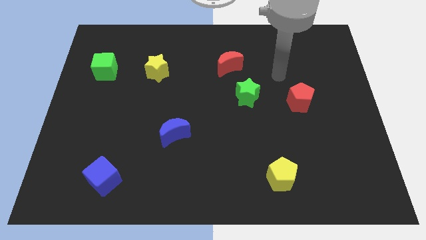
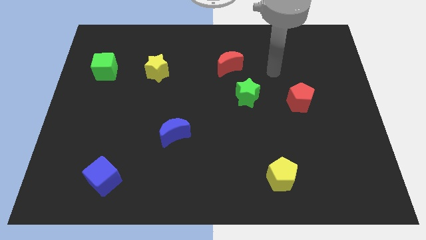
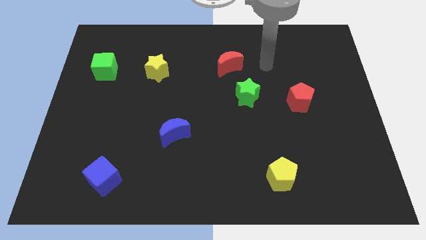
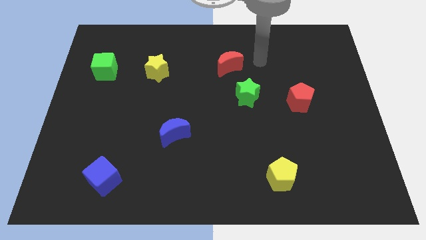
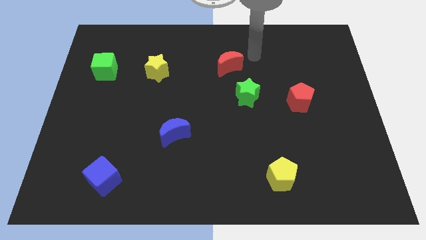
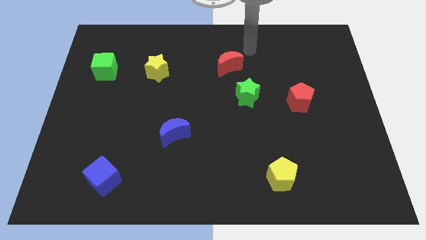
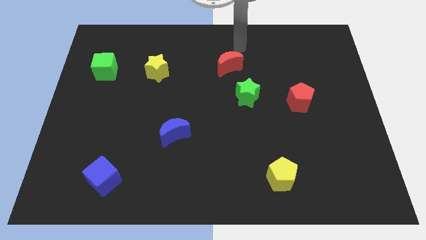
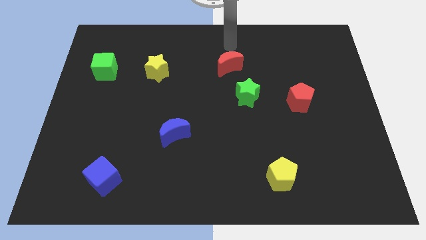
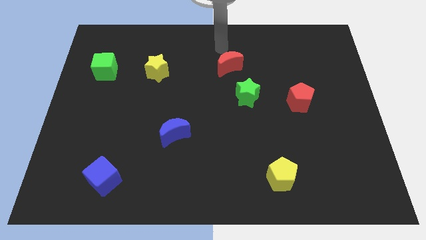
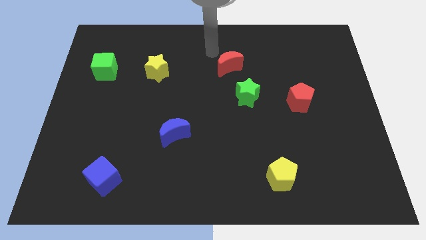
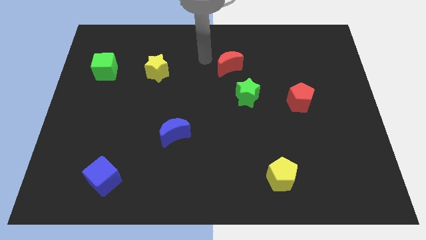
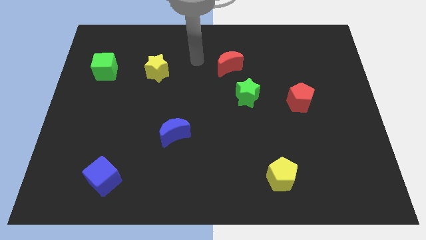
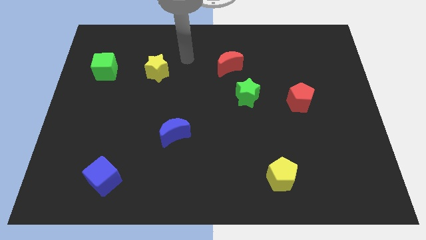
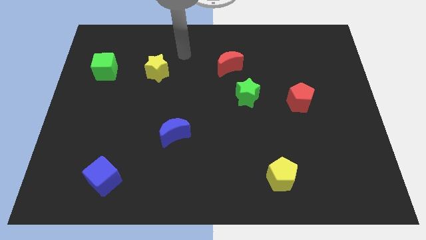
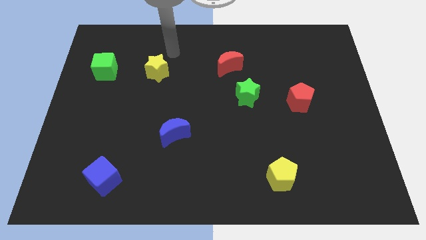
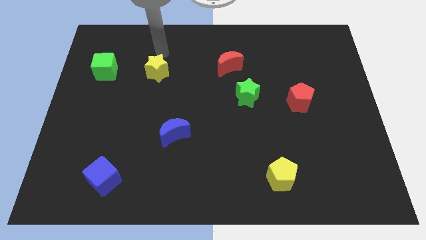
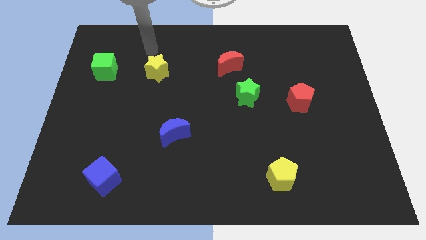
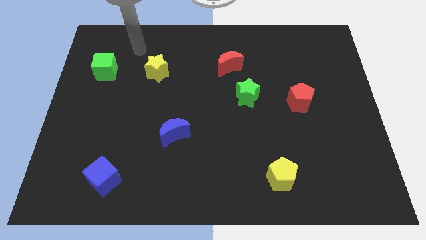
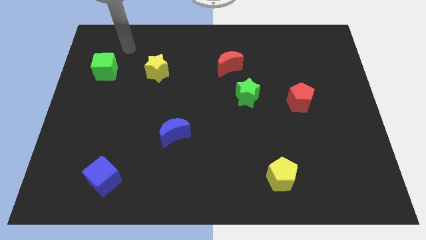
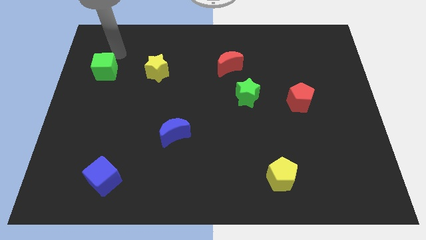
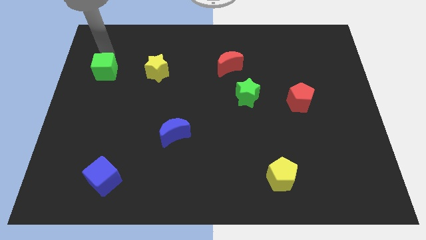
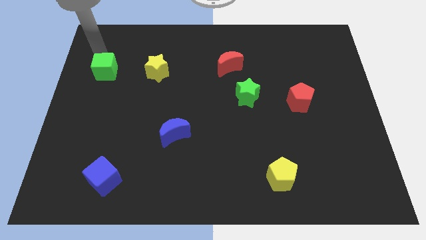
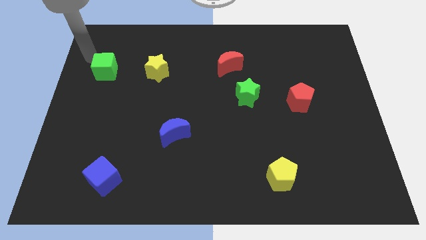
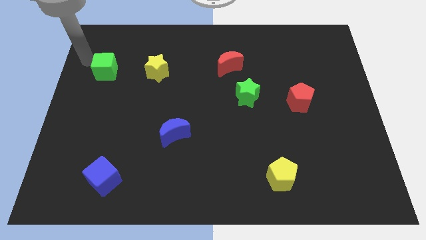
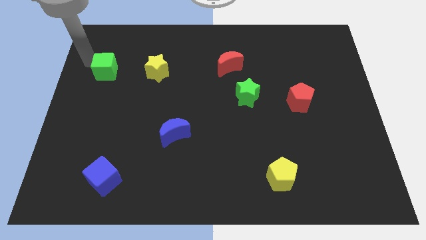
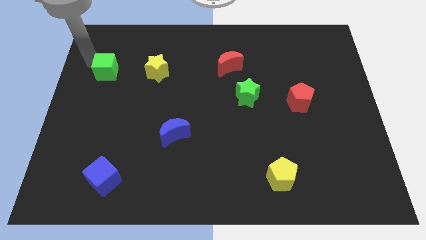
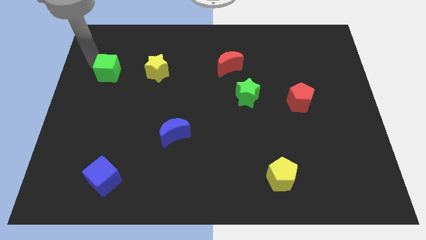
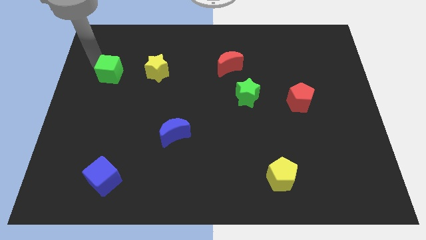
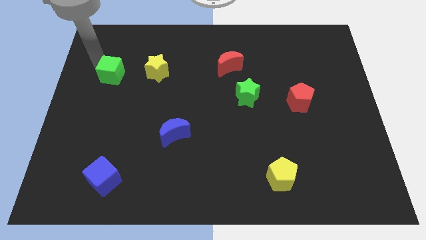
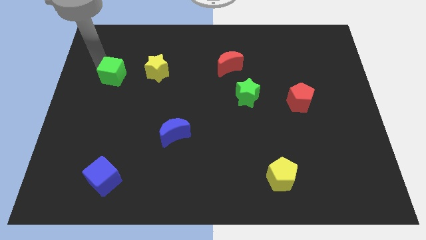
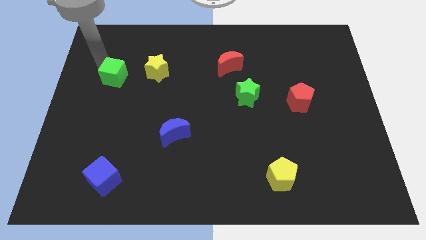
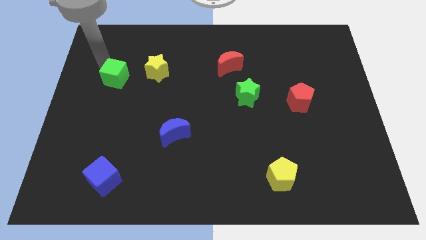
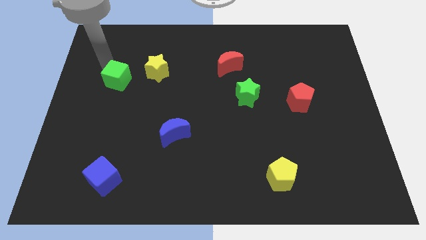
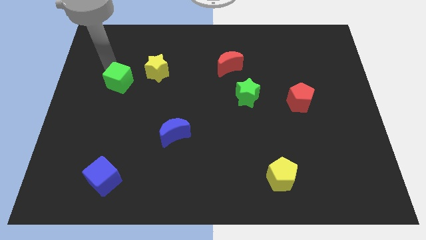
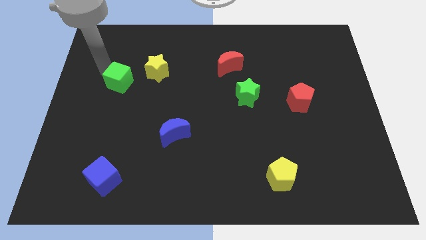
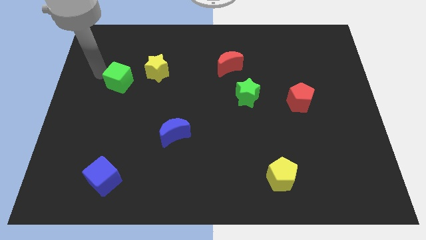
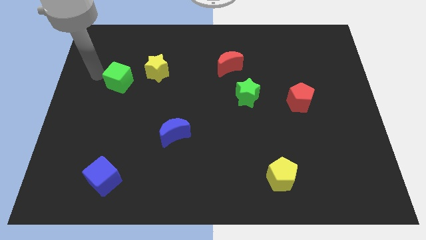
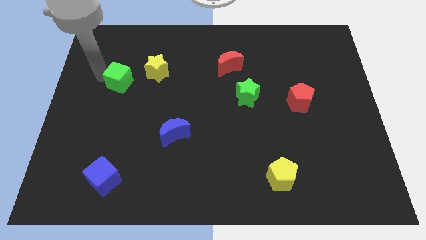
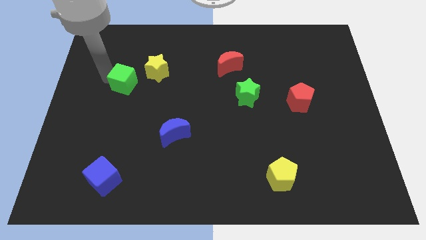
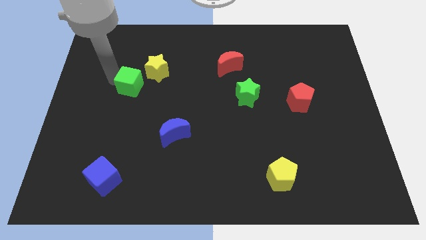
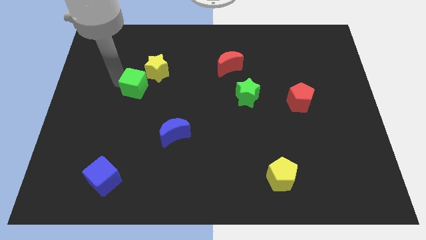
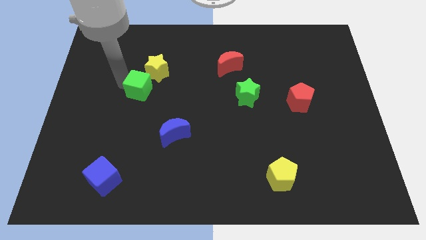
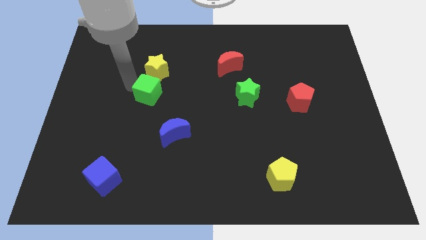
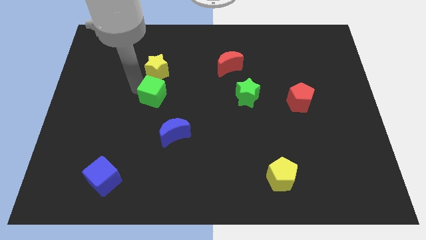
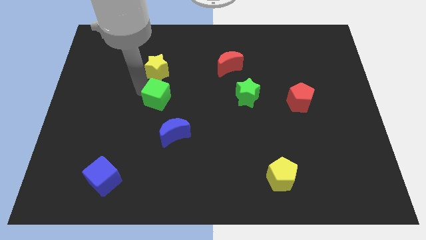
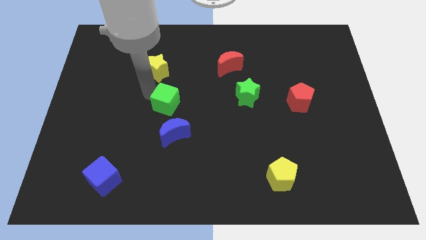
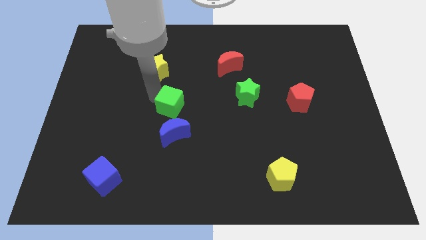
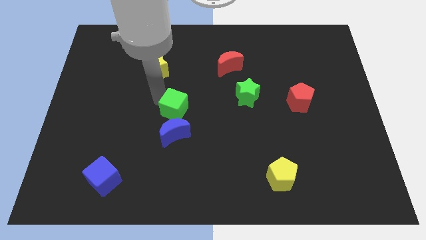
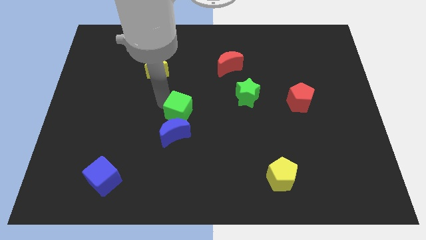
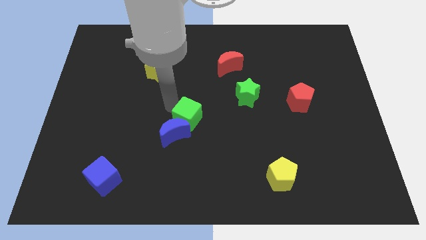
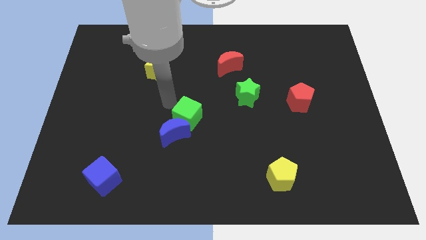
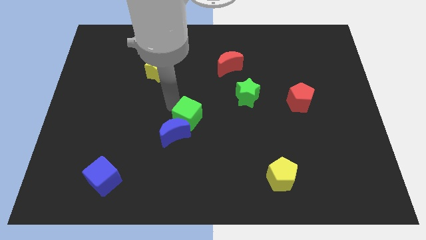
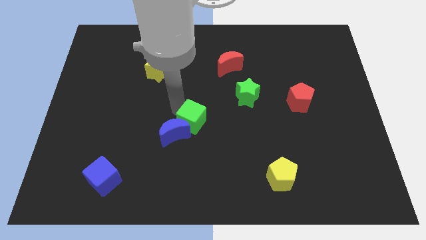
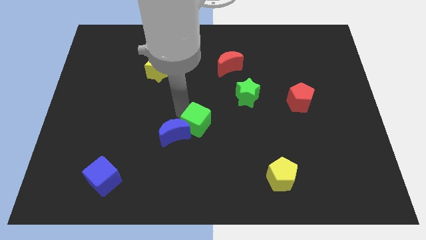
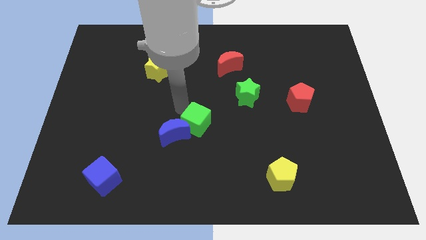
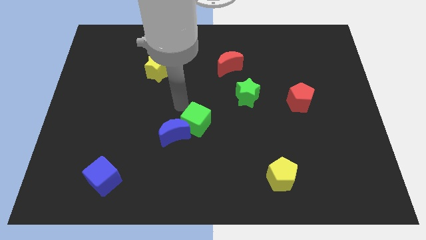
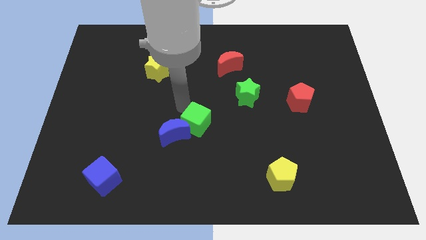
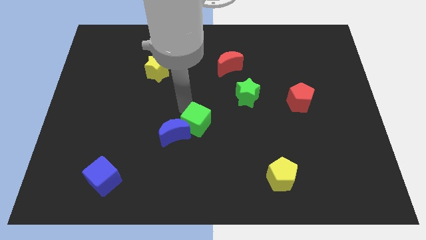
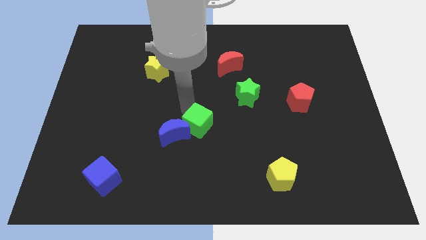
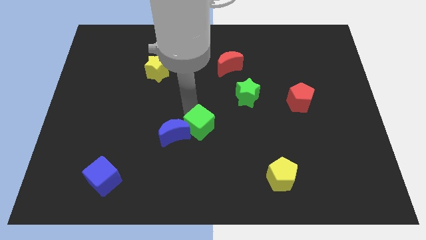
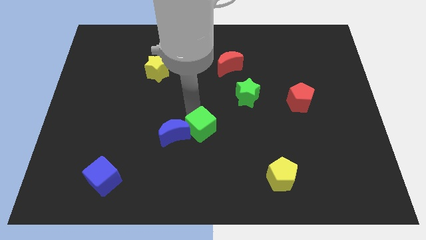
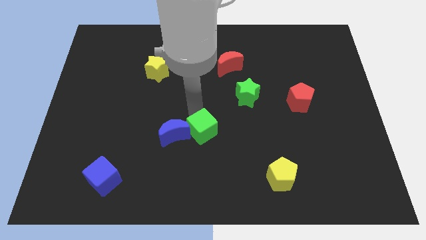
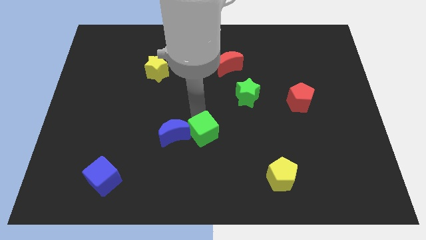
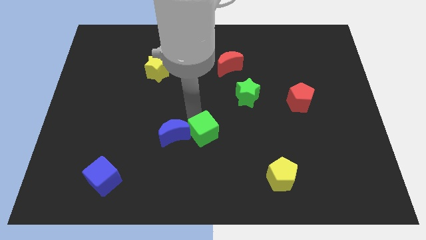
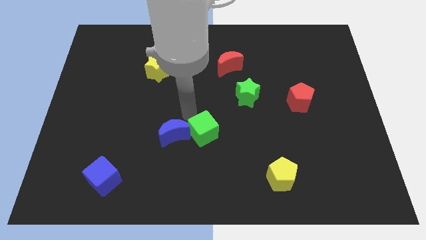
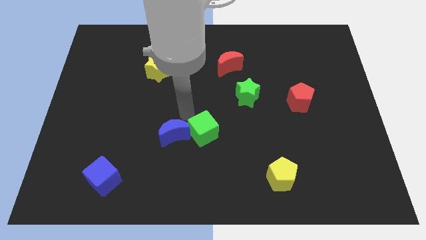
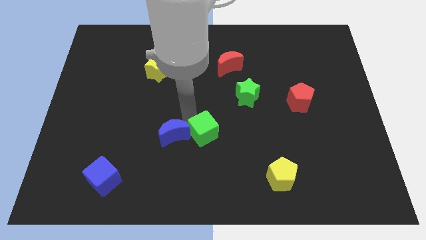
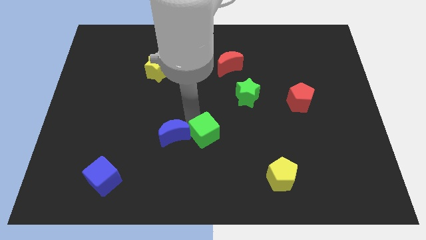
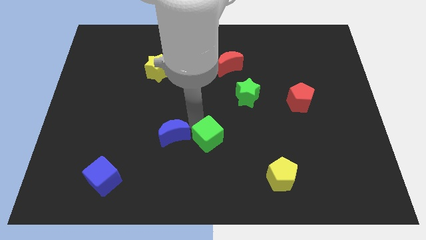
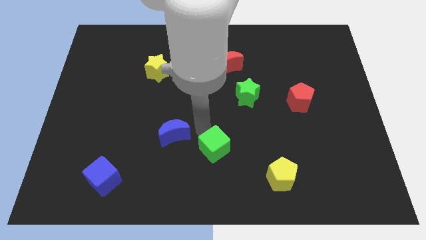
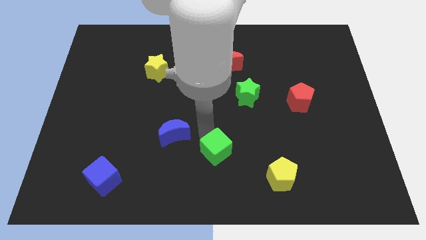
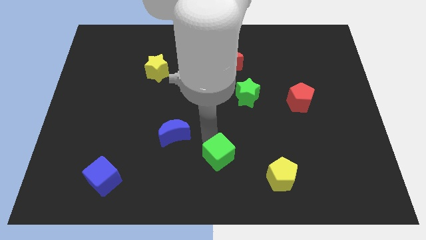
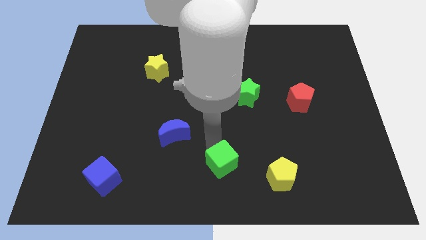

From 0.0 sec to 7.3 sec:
put the green cube just left of the yellow pentagon
